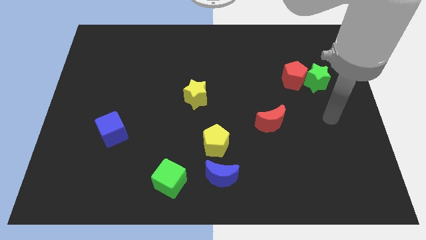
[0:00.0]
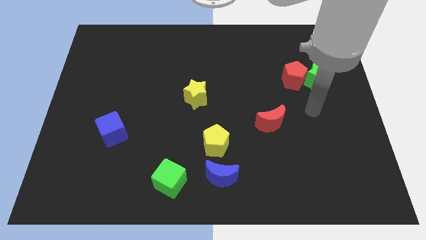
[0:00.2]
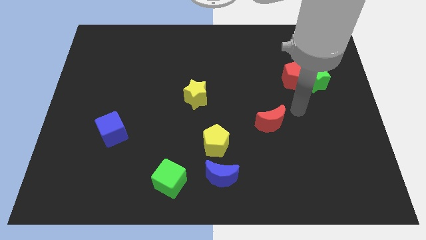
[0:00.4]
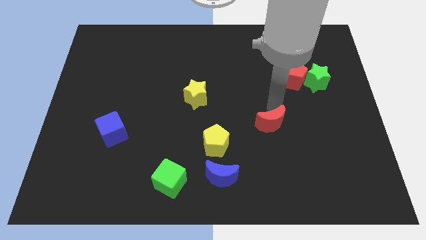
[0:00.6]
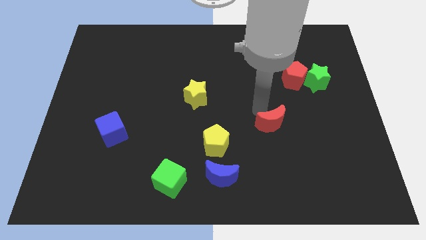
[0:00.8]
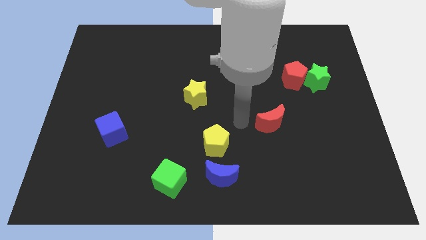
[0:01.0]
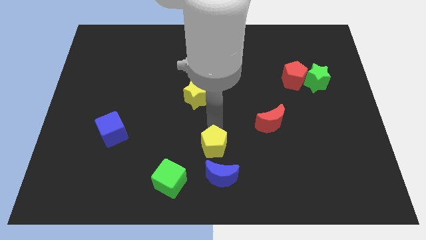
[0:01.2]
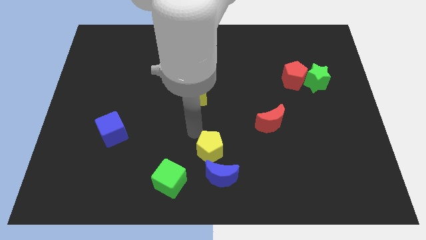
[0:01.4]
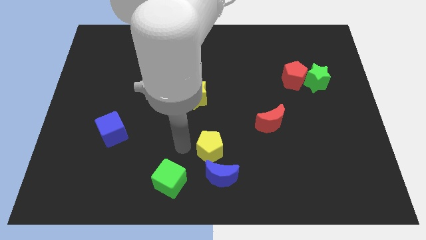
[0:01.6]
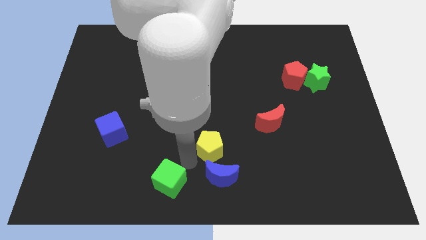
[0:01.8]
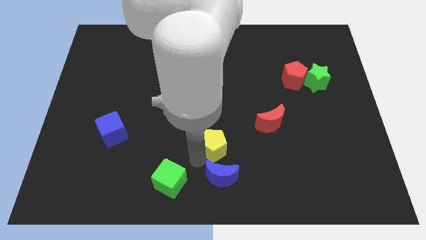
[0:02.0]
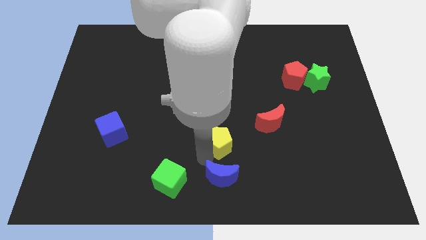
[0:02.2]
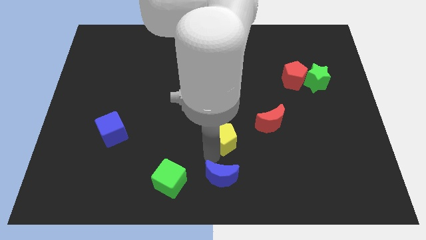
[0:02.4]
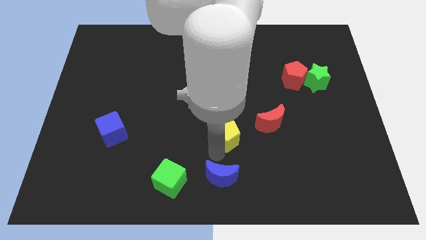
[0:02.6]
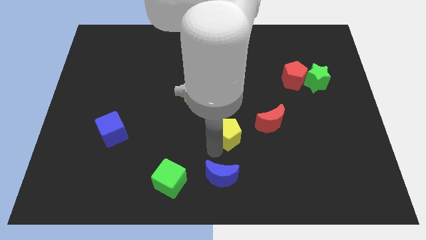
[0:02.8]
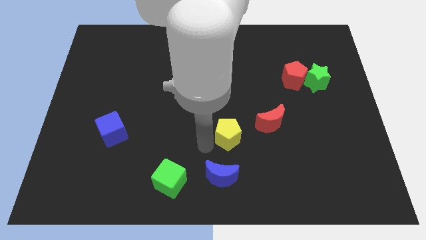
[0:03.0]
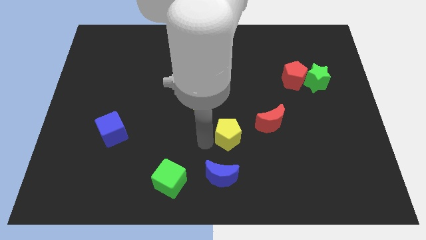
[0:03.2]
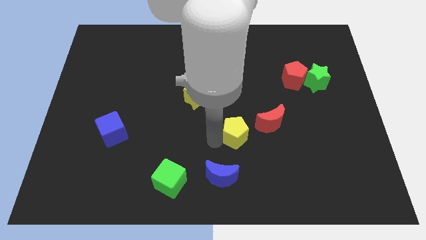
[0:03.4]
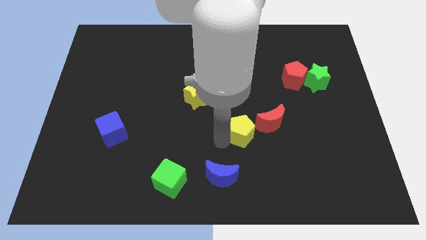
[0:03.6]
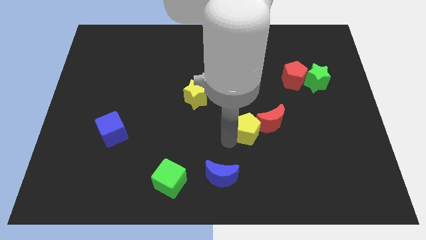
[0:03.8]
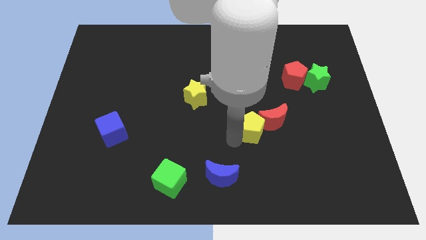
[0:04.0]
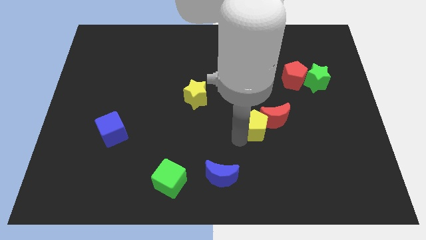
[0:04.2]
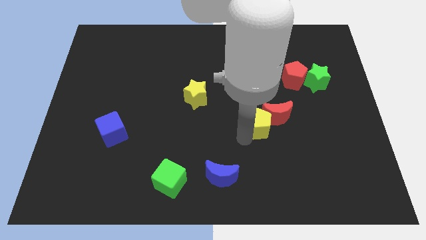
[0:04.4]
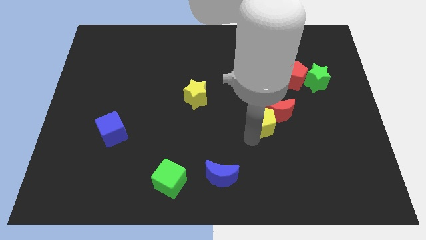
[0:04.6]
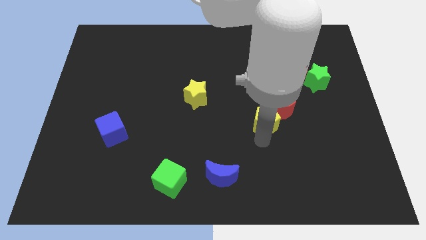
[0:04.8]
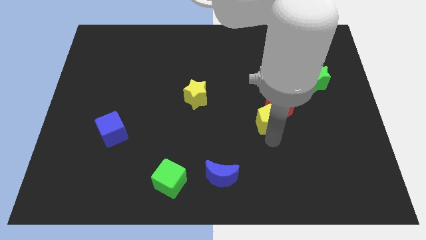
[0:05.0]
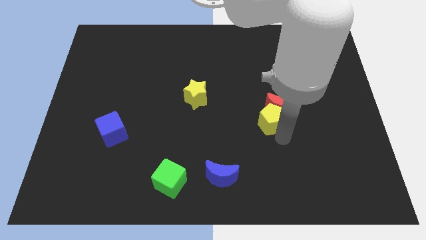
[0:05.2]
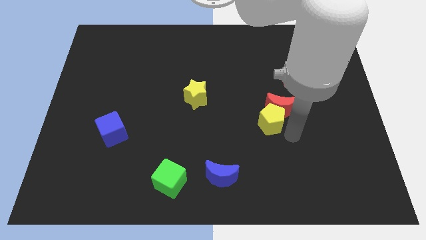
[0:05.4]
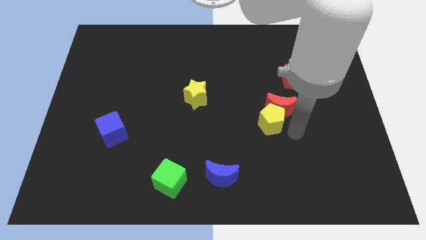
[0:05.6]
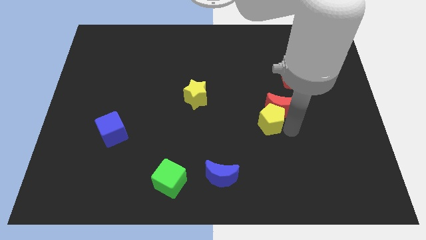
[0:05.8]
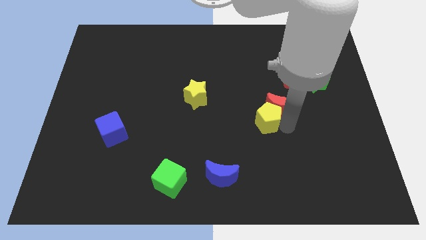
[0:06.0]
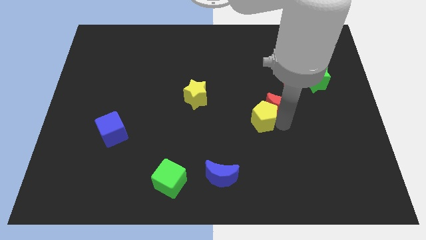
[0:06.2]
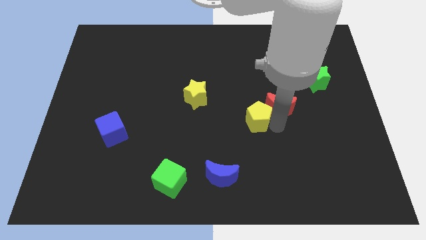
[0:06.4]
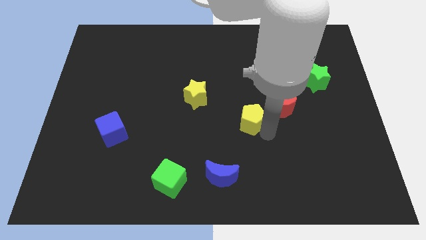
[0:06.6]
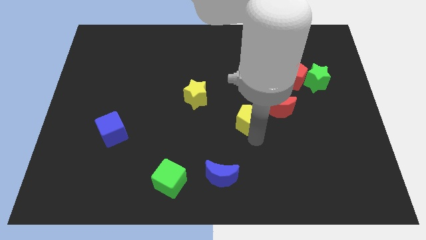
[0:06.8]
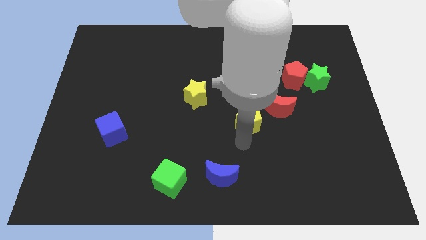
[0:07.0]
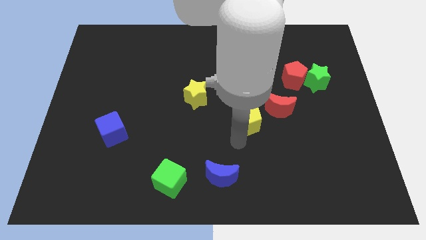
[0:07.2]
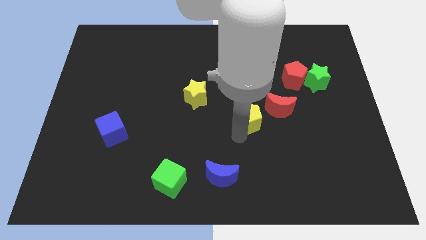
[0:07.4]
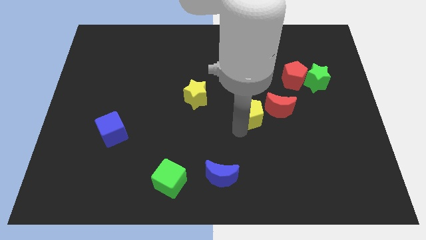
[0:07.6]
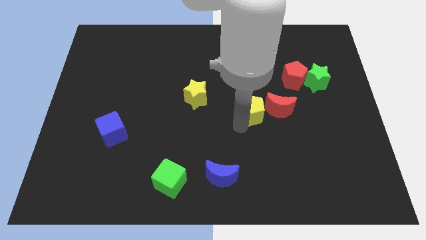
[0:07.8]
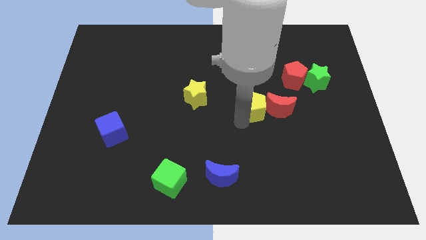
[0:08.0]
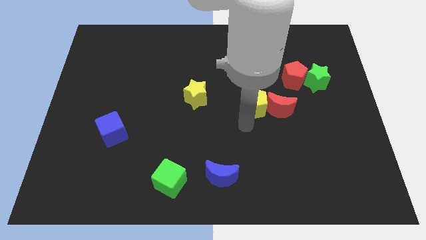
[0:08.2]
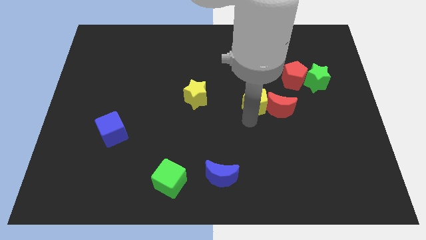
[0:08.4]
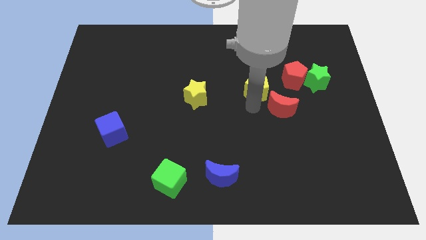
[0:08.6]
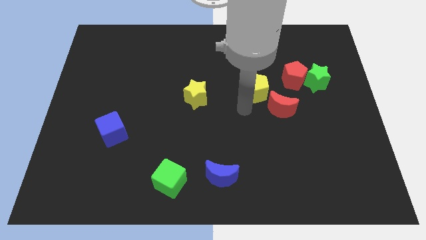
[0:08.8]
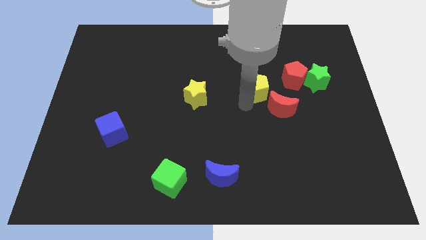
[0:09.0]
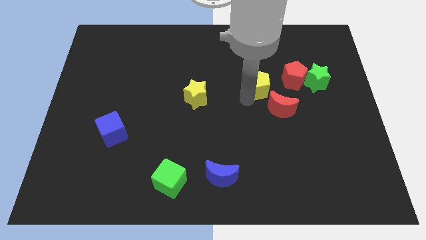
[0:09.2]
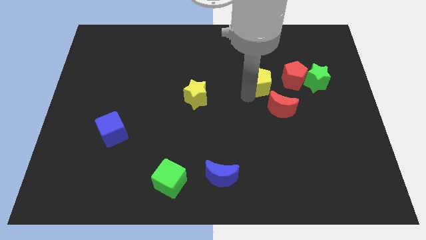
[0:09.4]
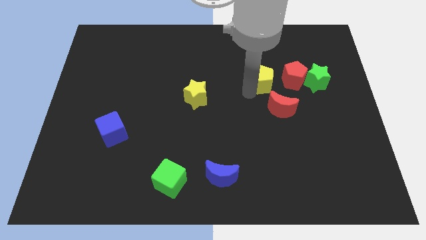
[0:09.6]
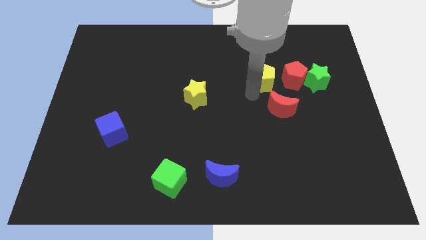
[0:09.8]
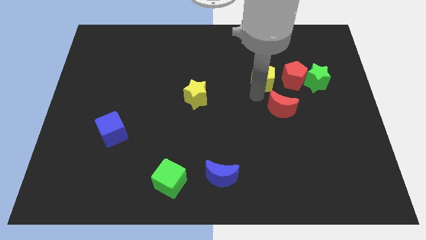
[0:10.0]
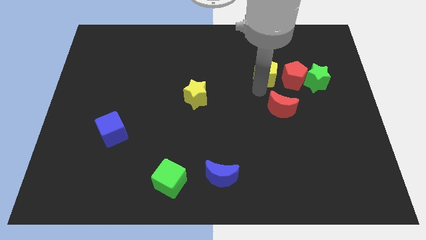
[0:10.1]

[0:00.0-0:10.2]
put the yellow pentagon to the top left side of the red pentagon

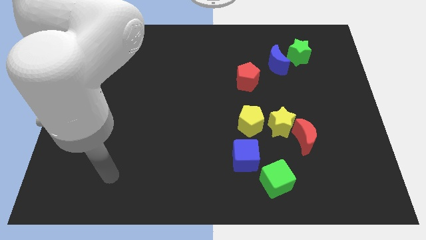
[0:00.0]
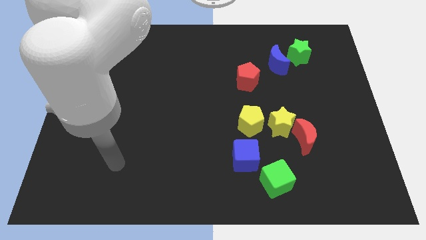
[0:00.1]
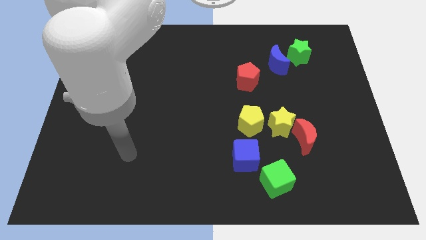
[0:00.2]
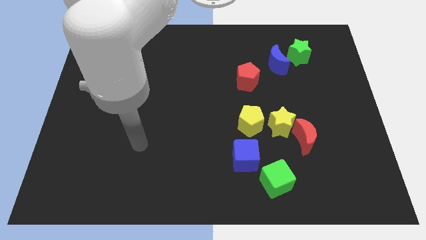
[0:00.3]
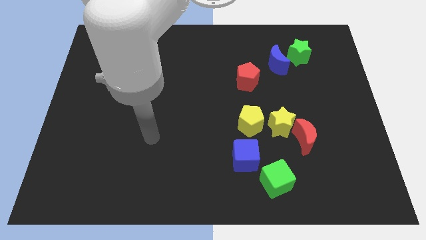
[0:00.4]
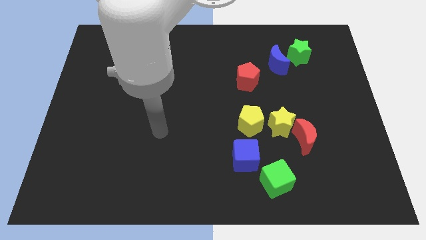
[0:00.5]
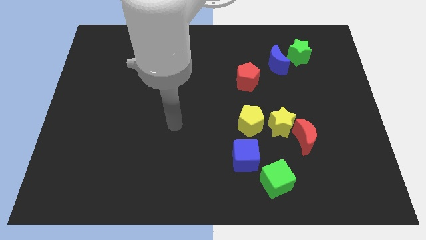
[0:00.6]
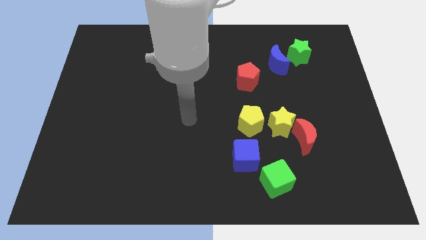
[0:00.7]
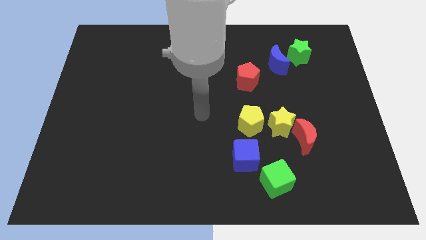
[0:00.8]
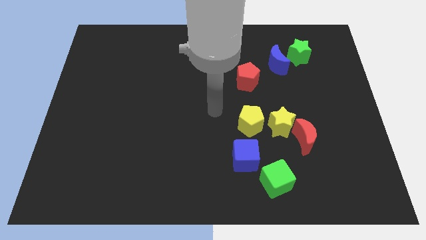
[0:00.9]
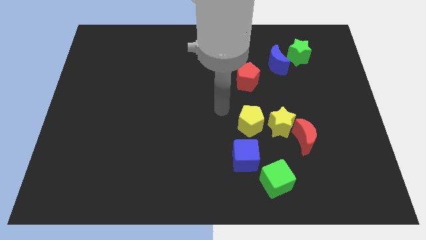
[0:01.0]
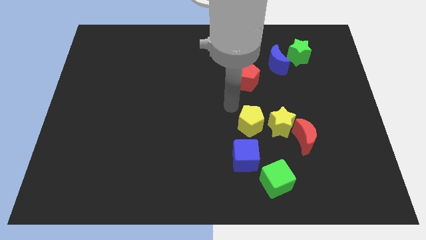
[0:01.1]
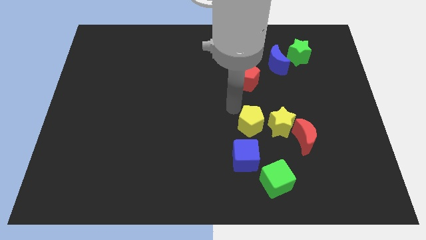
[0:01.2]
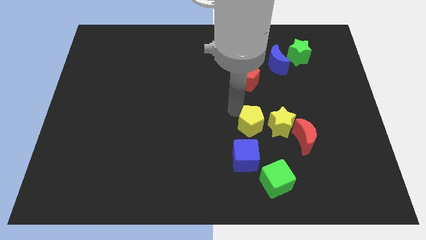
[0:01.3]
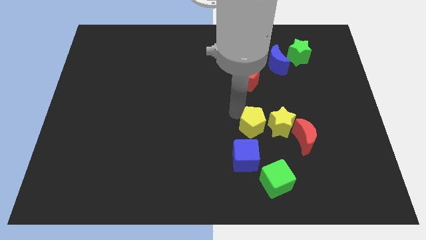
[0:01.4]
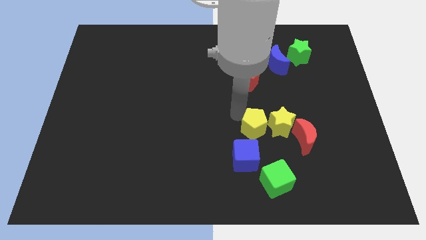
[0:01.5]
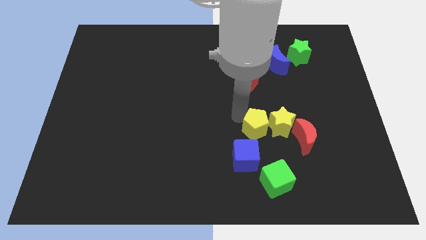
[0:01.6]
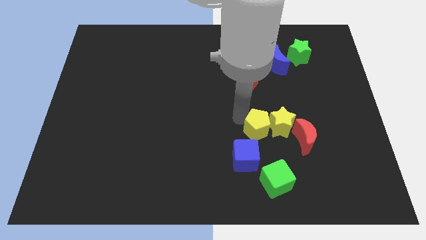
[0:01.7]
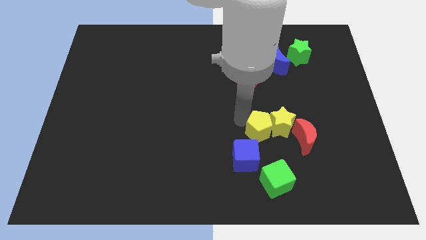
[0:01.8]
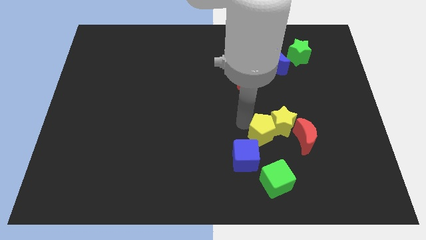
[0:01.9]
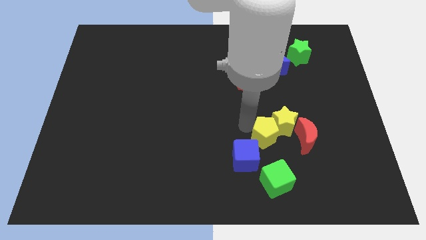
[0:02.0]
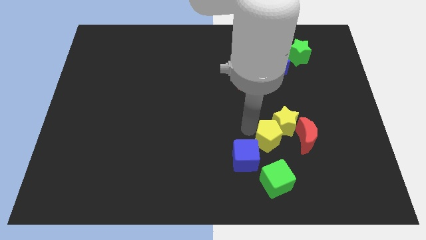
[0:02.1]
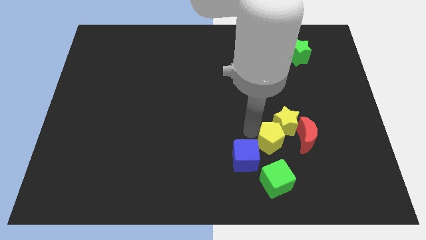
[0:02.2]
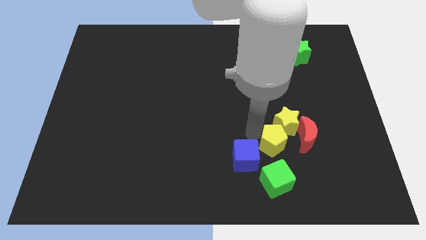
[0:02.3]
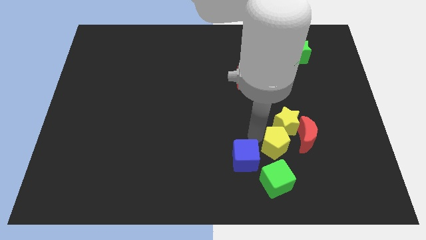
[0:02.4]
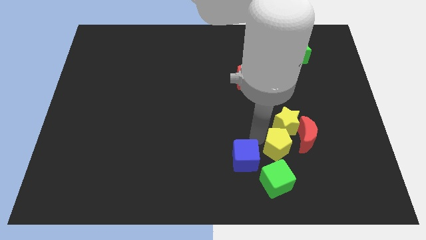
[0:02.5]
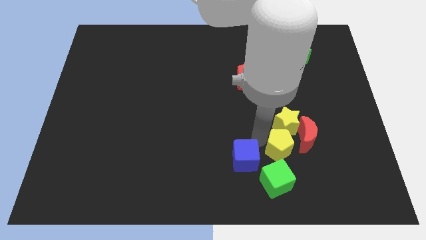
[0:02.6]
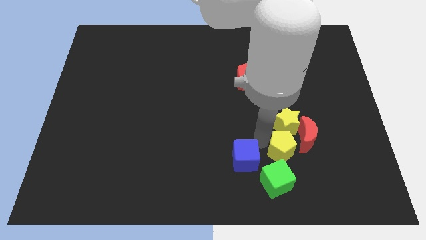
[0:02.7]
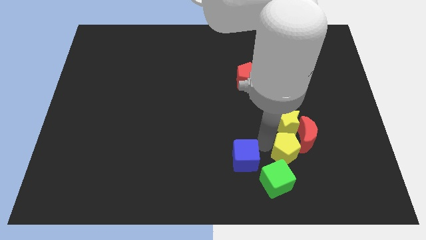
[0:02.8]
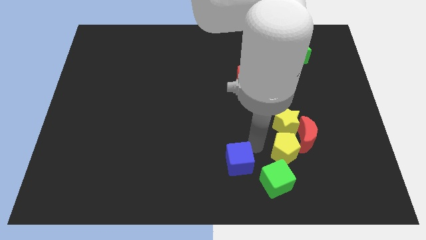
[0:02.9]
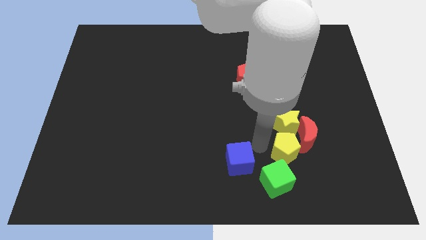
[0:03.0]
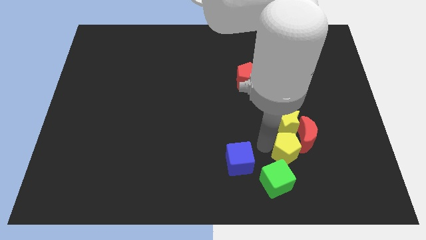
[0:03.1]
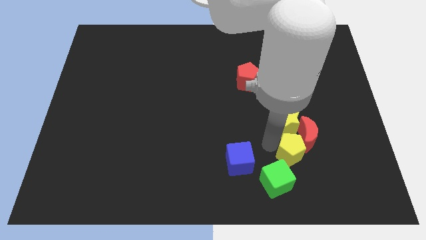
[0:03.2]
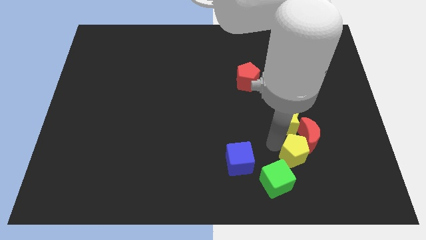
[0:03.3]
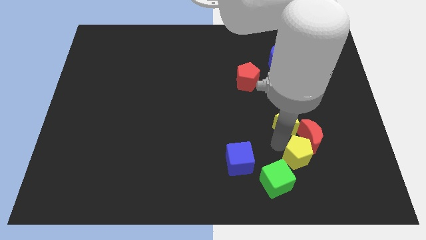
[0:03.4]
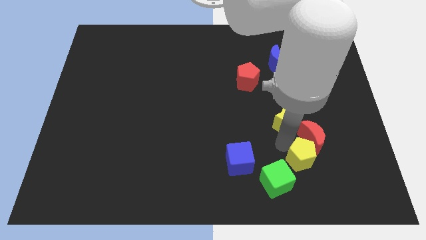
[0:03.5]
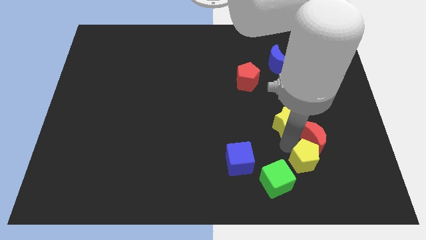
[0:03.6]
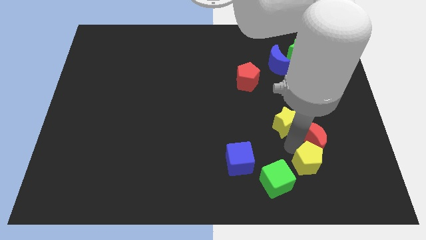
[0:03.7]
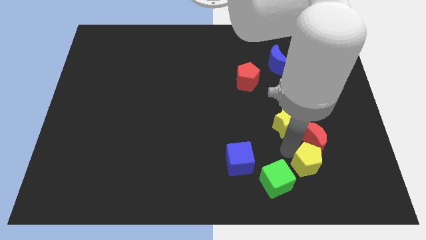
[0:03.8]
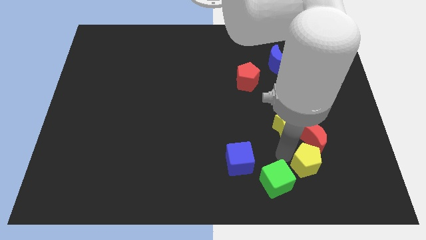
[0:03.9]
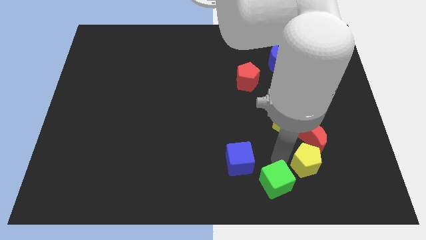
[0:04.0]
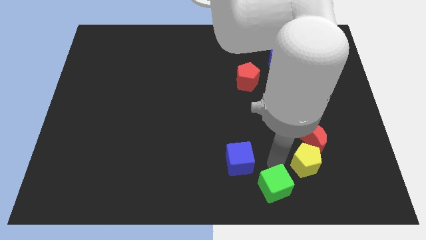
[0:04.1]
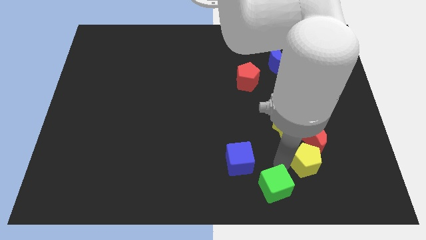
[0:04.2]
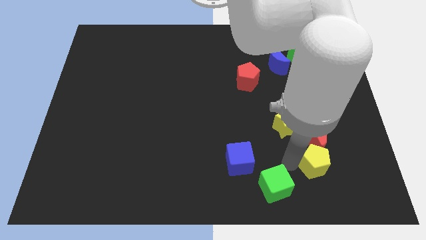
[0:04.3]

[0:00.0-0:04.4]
move the yellow pentagon to the bottom right side of the red moon
